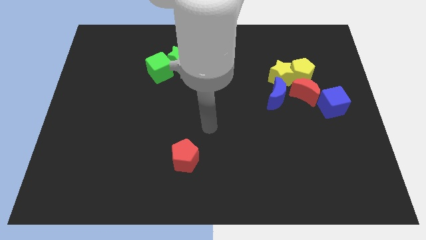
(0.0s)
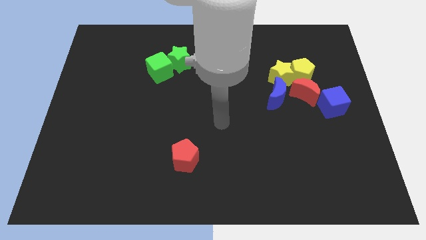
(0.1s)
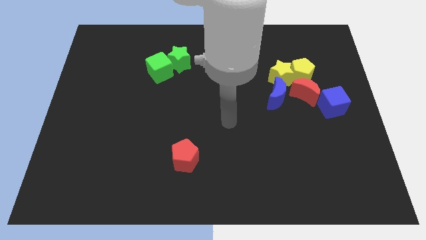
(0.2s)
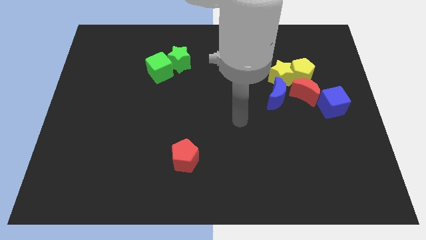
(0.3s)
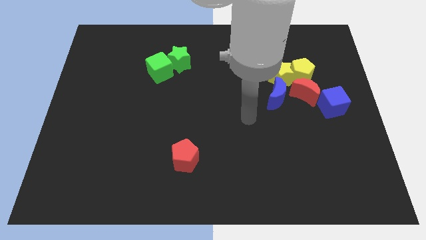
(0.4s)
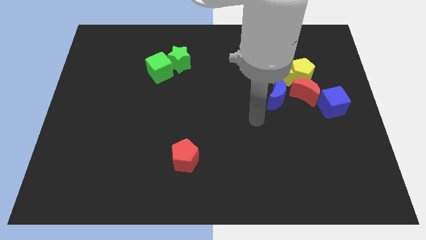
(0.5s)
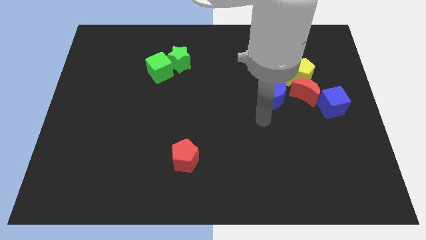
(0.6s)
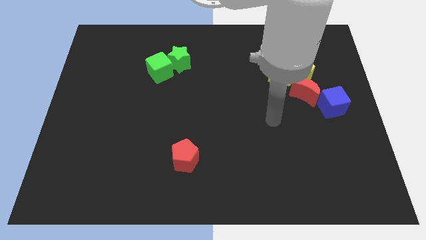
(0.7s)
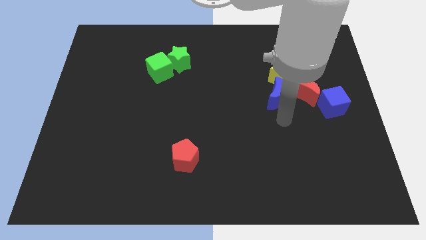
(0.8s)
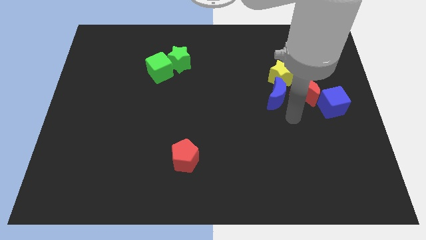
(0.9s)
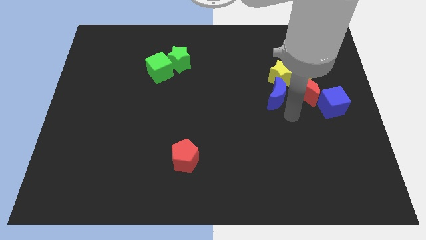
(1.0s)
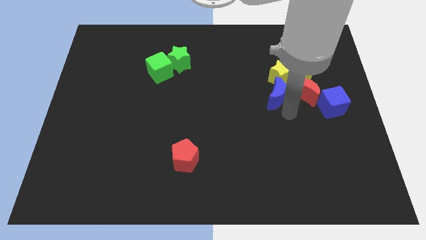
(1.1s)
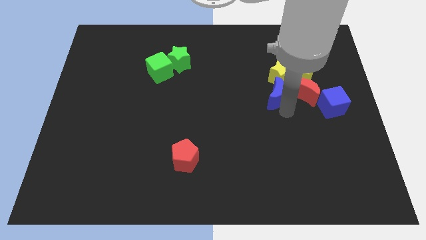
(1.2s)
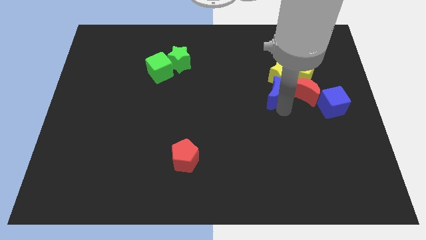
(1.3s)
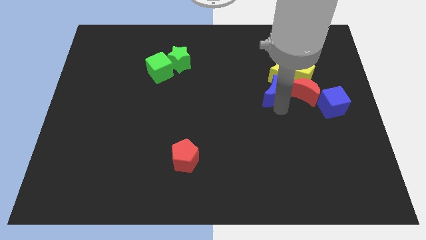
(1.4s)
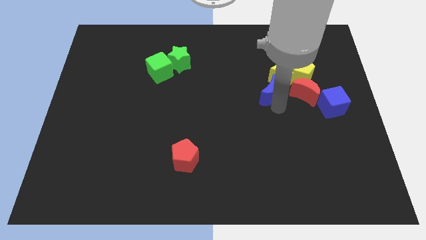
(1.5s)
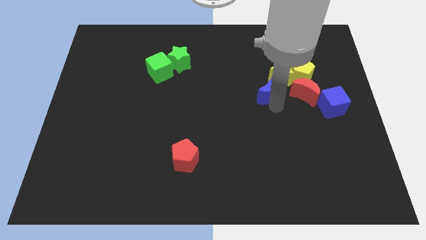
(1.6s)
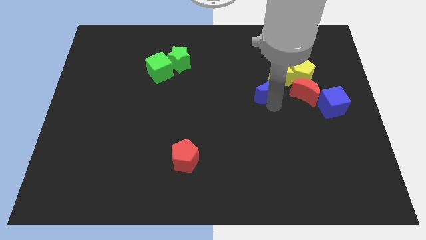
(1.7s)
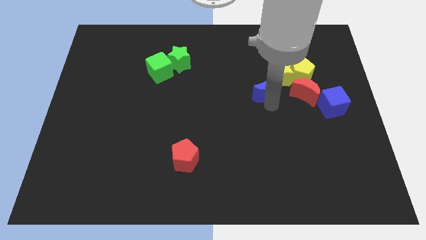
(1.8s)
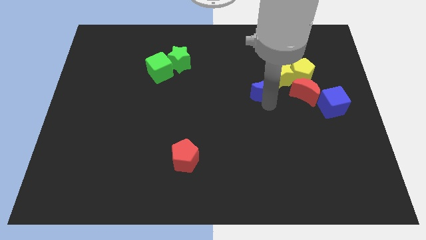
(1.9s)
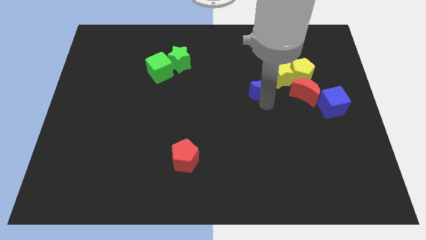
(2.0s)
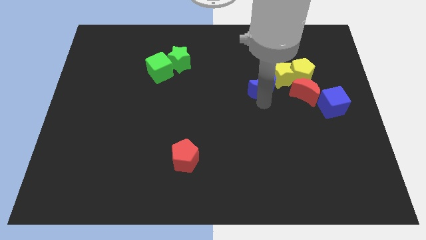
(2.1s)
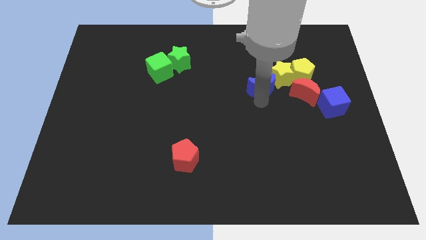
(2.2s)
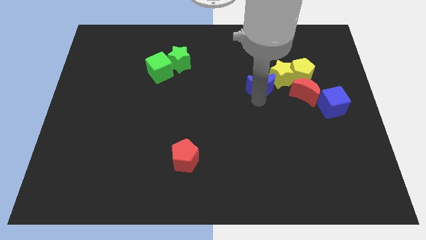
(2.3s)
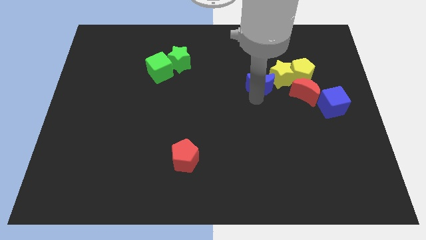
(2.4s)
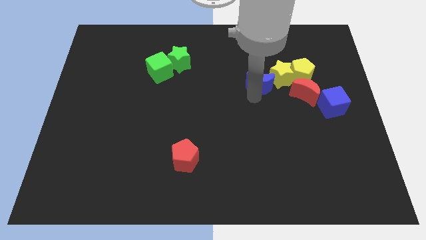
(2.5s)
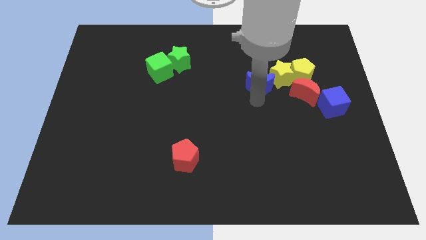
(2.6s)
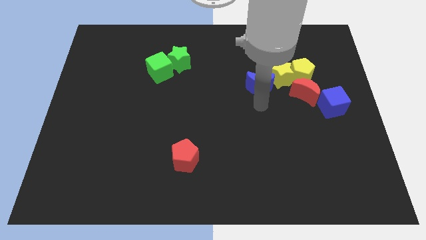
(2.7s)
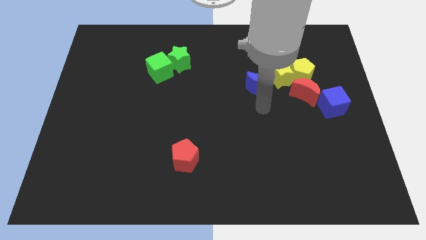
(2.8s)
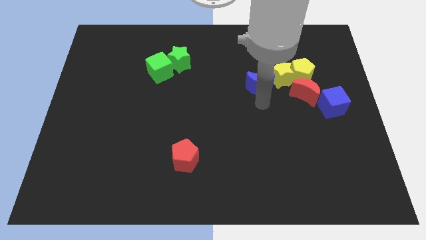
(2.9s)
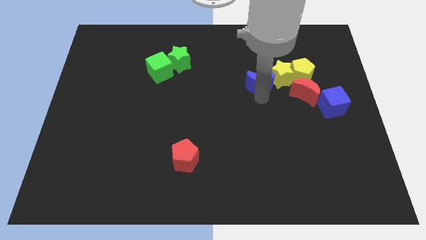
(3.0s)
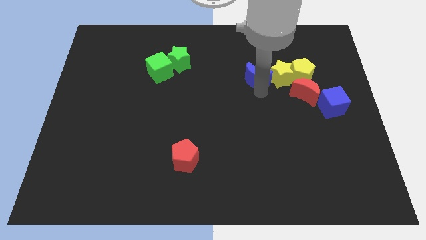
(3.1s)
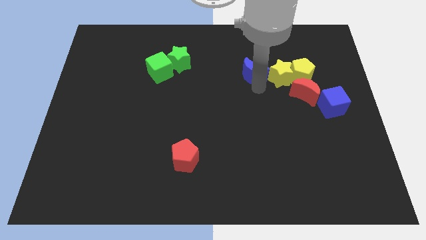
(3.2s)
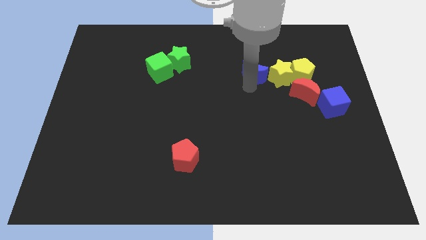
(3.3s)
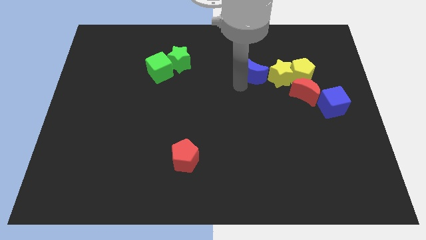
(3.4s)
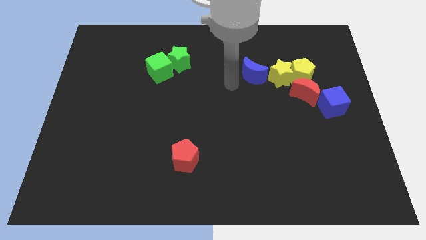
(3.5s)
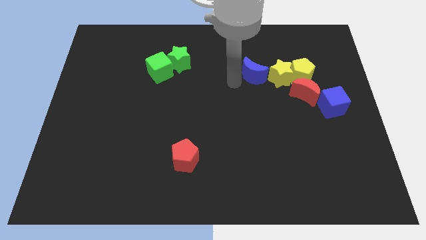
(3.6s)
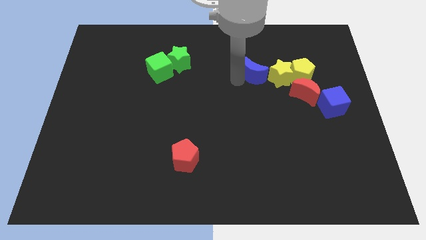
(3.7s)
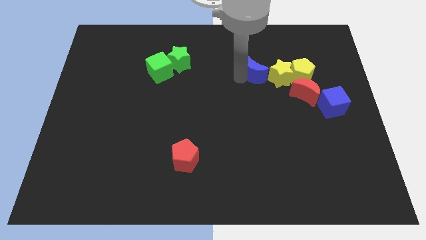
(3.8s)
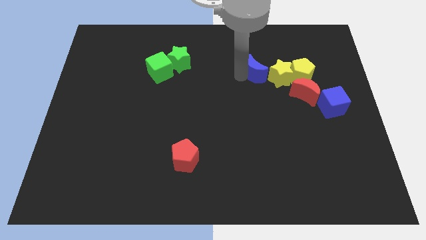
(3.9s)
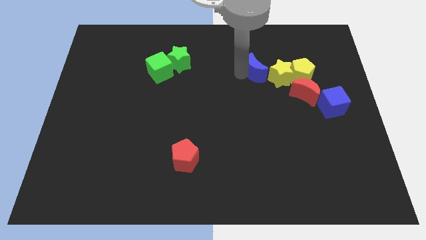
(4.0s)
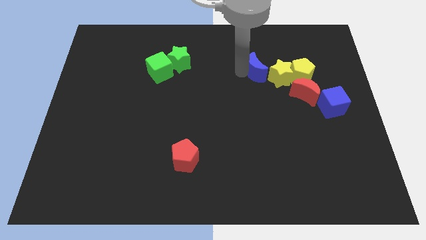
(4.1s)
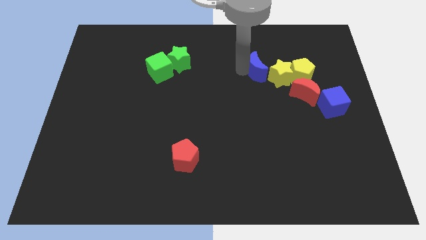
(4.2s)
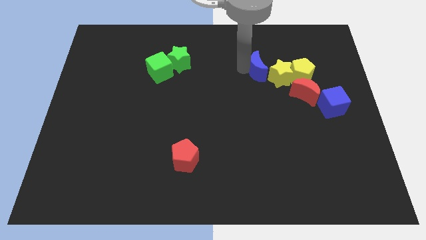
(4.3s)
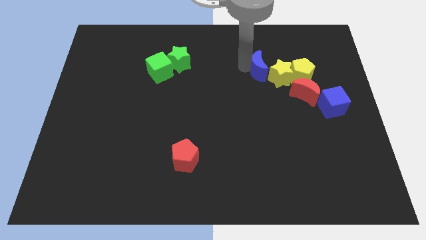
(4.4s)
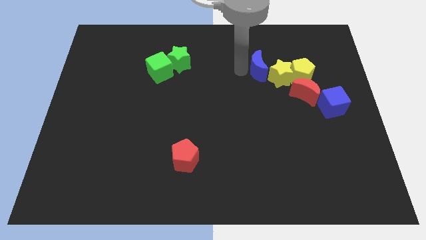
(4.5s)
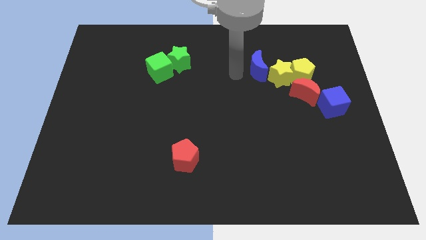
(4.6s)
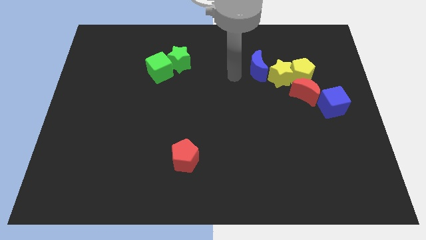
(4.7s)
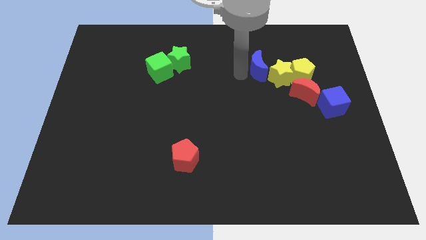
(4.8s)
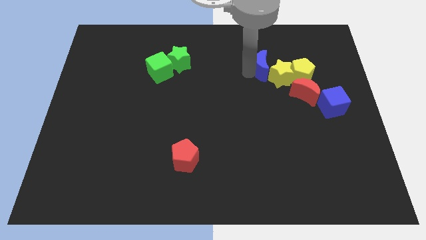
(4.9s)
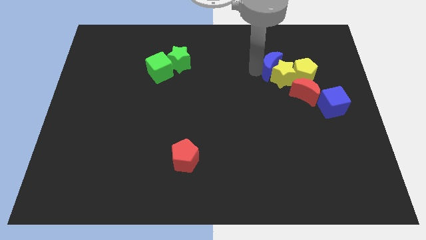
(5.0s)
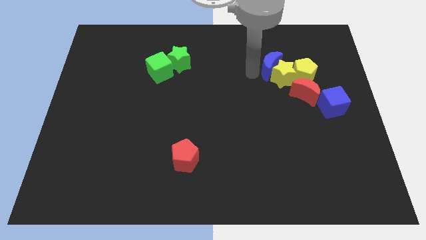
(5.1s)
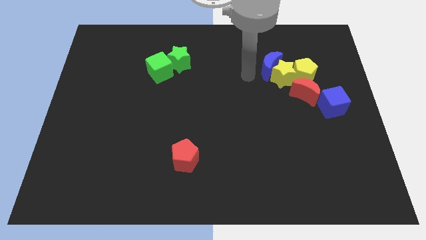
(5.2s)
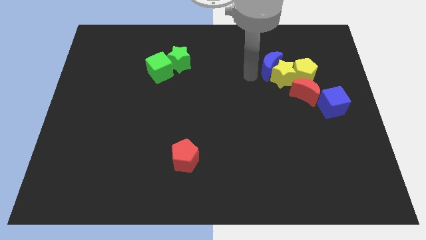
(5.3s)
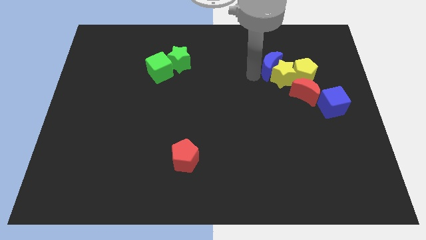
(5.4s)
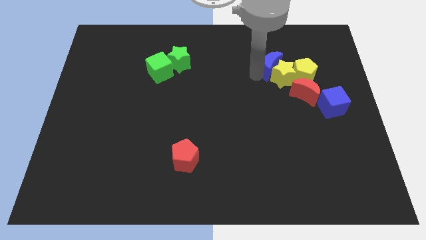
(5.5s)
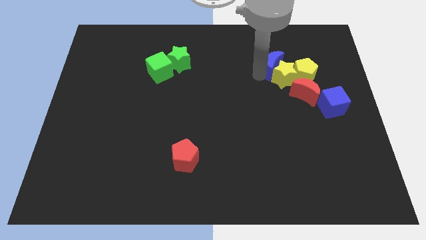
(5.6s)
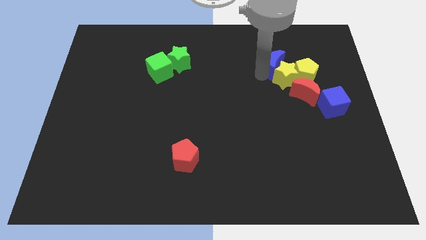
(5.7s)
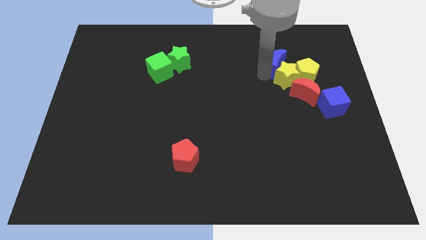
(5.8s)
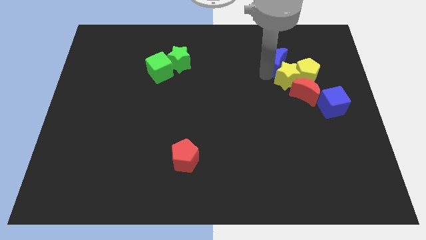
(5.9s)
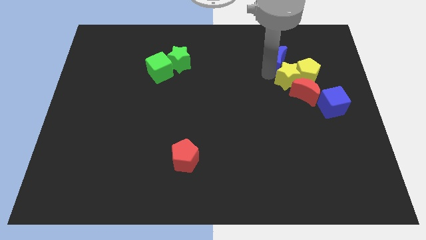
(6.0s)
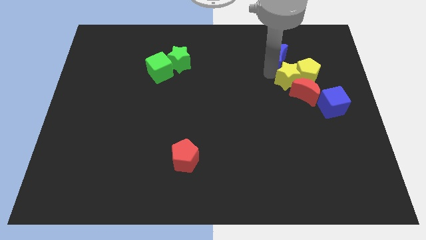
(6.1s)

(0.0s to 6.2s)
push the blue moon slightly upwards and to the right

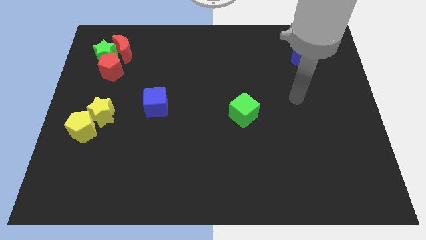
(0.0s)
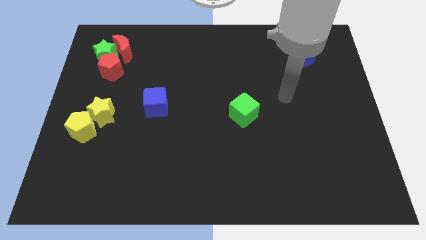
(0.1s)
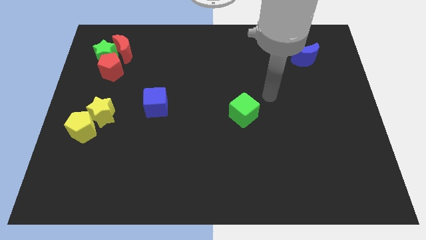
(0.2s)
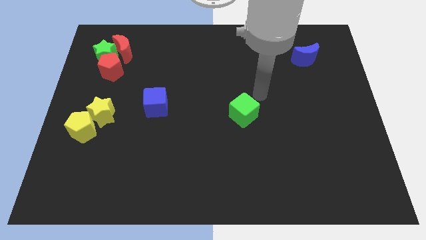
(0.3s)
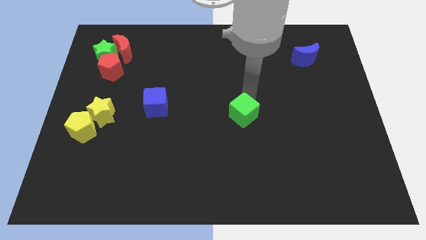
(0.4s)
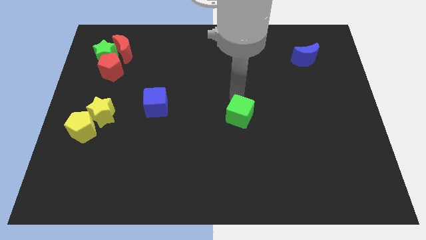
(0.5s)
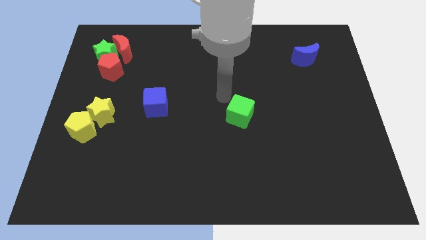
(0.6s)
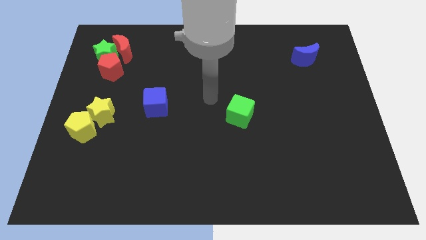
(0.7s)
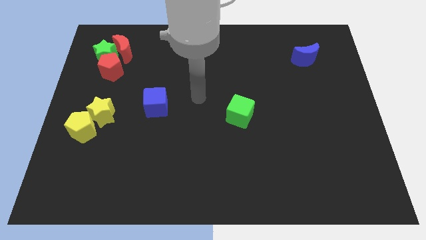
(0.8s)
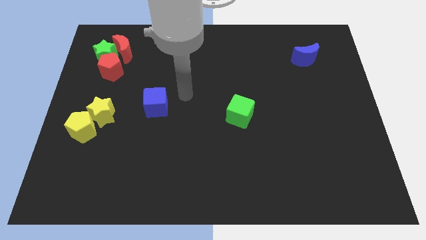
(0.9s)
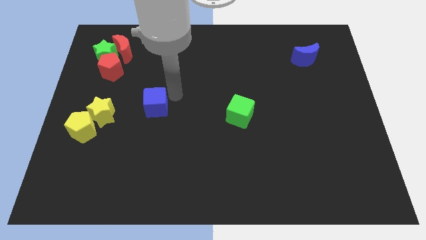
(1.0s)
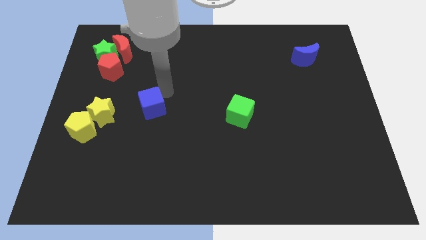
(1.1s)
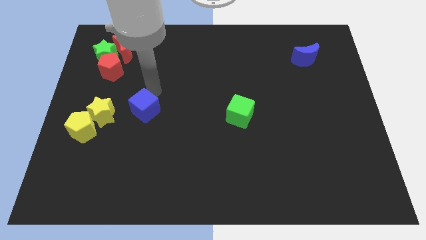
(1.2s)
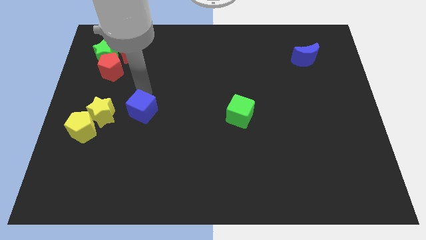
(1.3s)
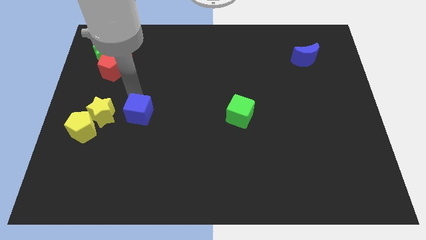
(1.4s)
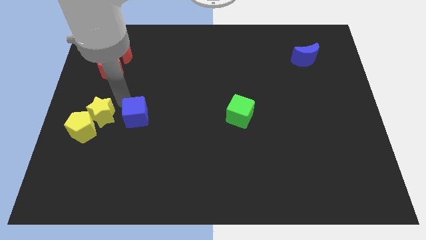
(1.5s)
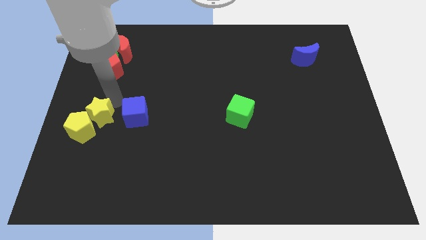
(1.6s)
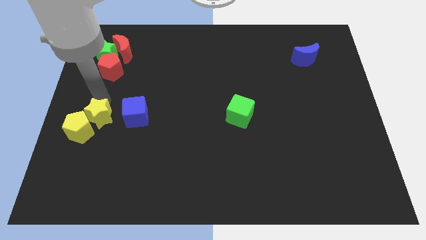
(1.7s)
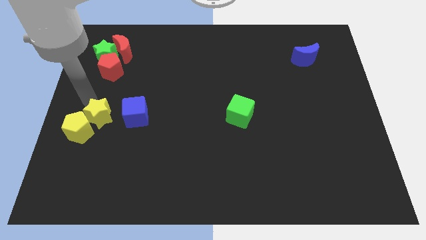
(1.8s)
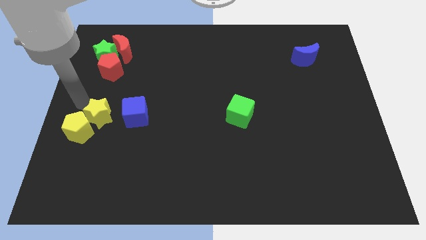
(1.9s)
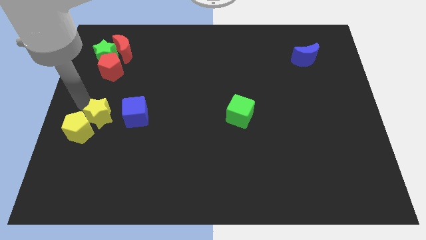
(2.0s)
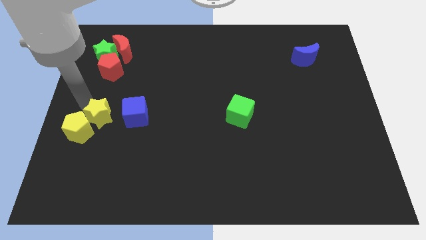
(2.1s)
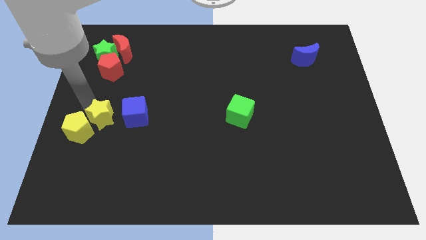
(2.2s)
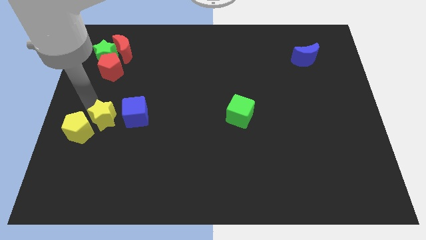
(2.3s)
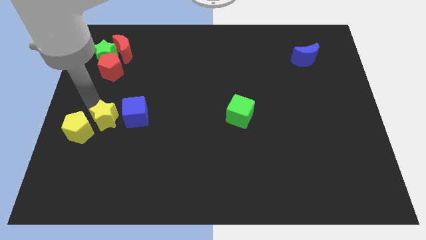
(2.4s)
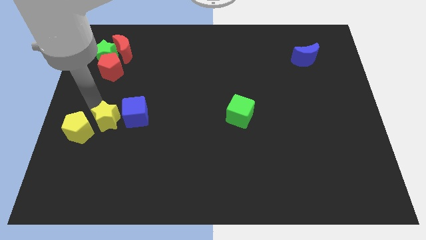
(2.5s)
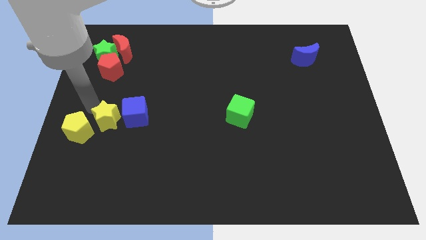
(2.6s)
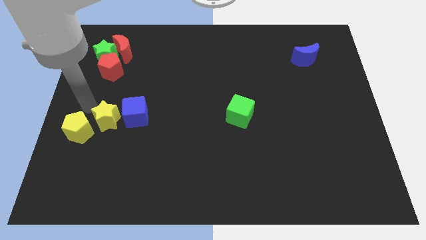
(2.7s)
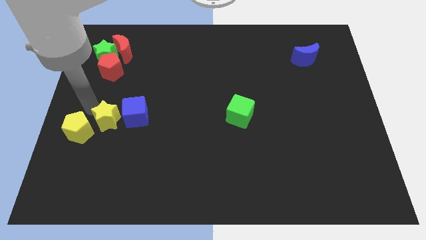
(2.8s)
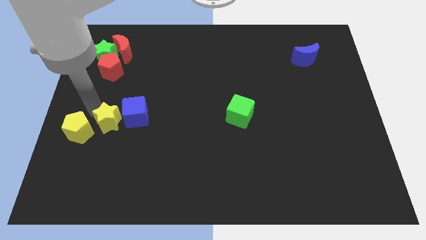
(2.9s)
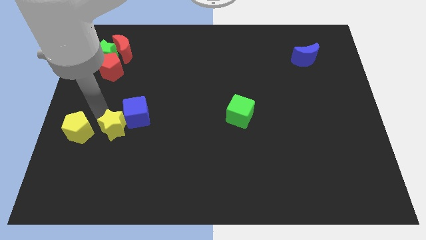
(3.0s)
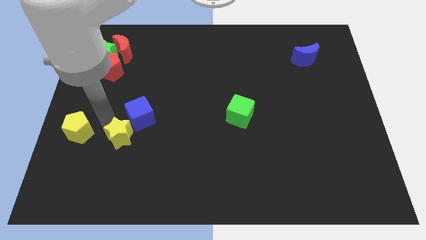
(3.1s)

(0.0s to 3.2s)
slide the yellow star somewhat downwards and to the right
